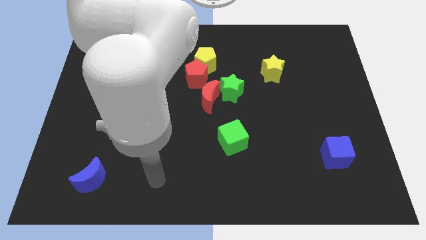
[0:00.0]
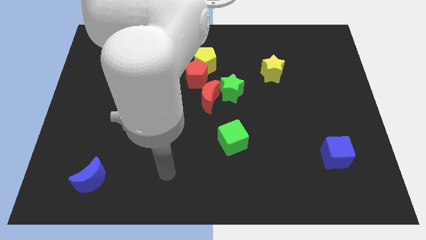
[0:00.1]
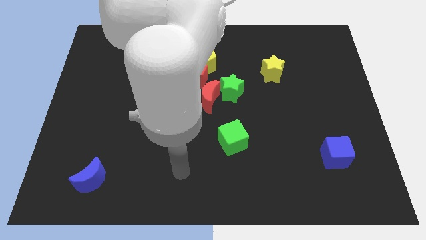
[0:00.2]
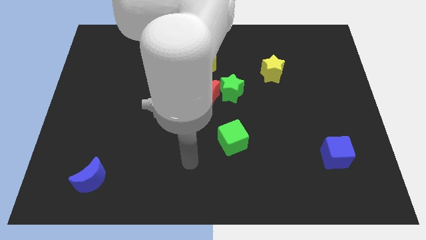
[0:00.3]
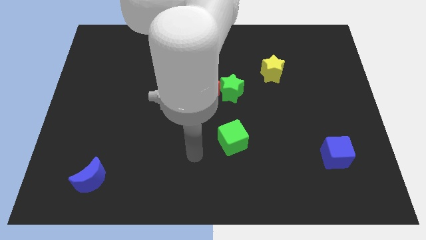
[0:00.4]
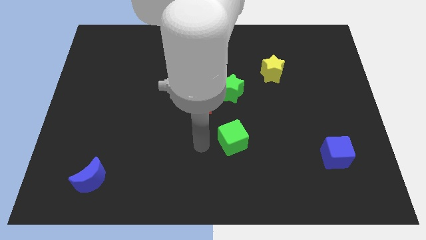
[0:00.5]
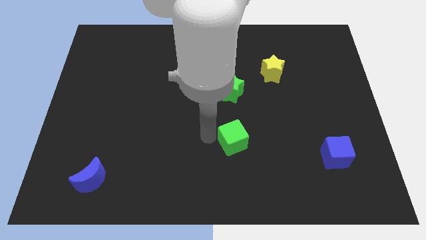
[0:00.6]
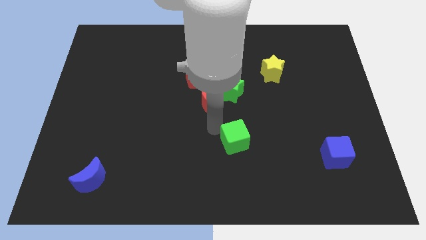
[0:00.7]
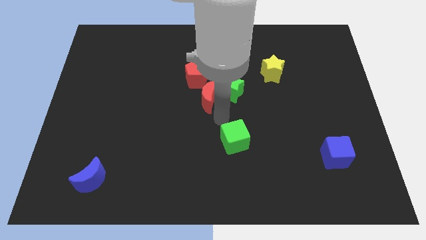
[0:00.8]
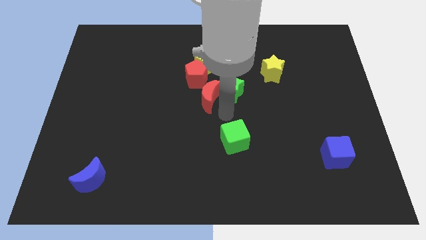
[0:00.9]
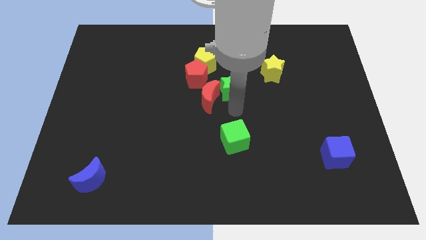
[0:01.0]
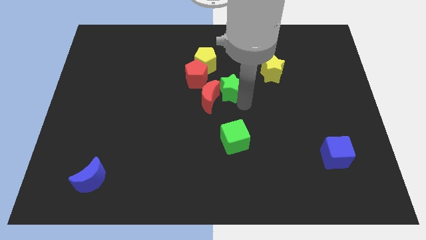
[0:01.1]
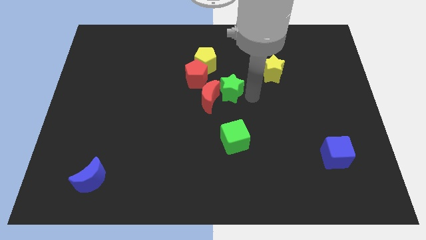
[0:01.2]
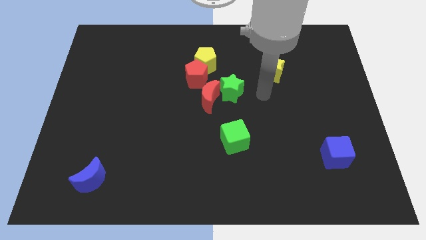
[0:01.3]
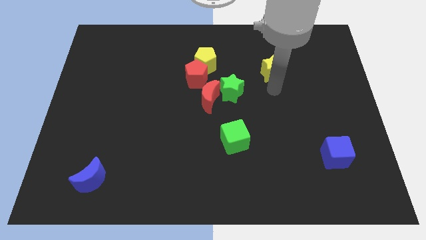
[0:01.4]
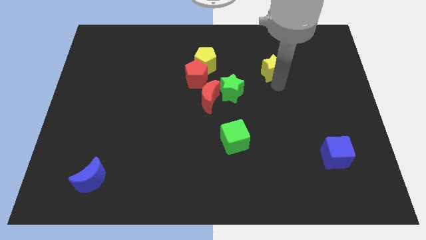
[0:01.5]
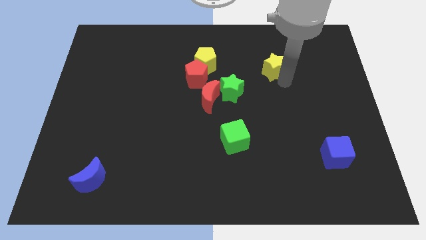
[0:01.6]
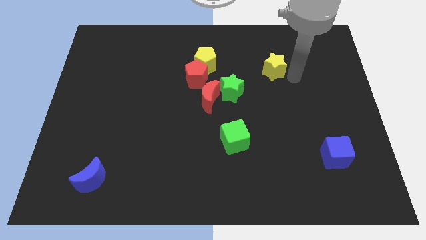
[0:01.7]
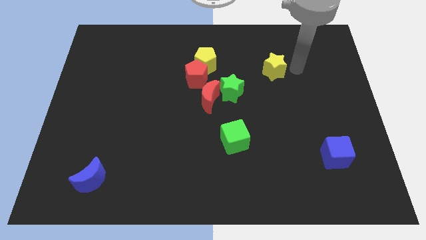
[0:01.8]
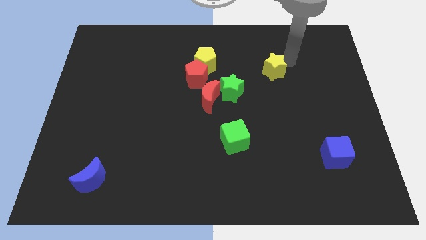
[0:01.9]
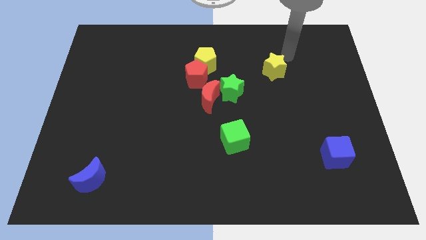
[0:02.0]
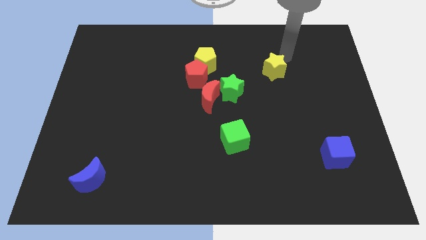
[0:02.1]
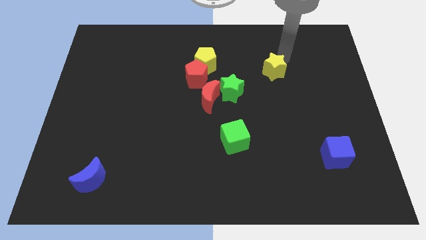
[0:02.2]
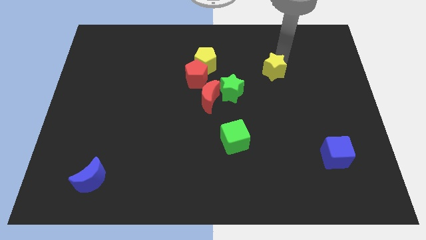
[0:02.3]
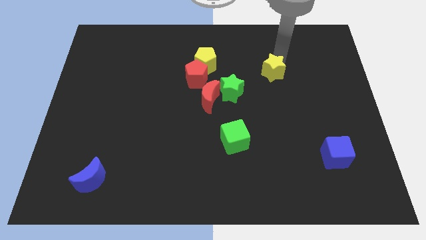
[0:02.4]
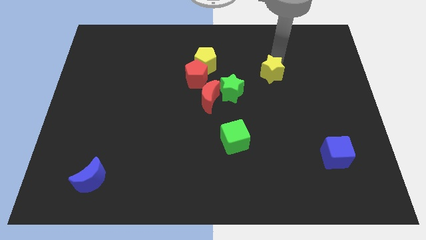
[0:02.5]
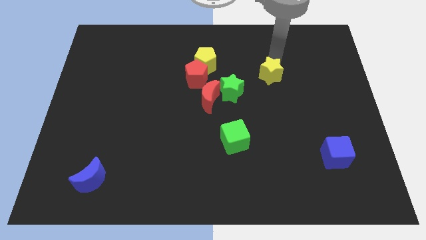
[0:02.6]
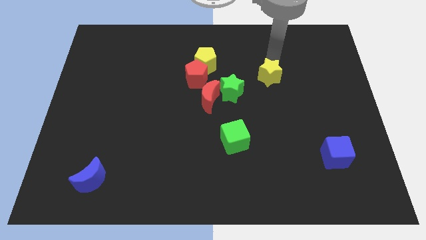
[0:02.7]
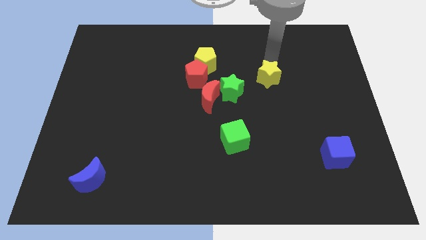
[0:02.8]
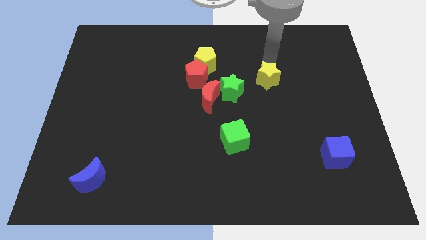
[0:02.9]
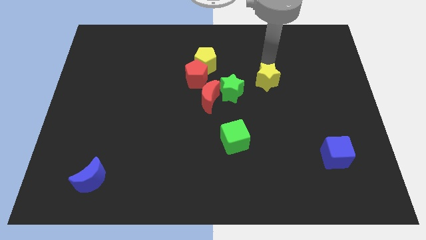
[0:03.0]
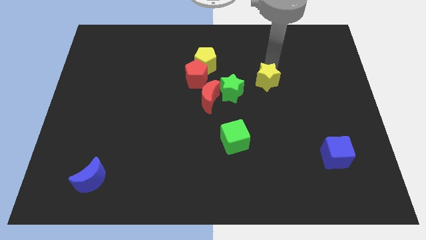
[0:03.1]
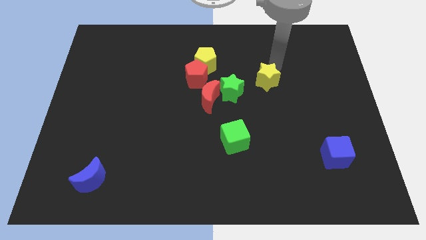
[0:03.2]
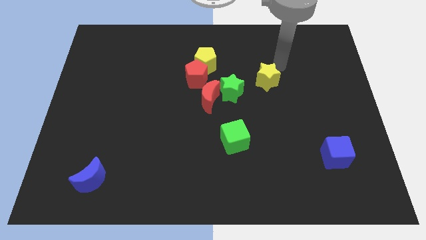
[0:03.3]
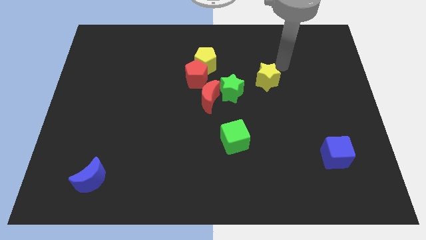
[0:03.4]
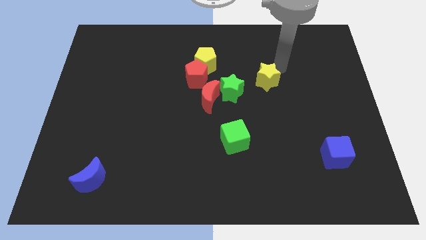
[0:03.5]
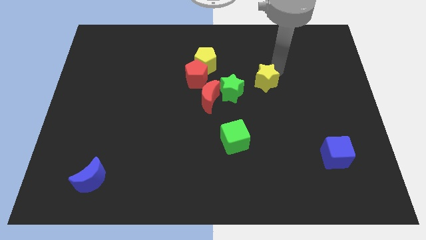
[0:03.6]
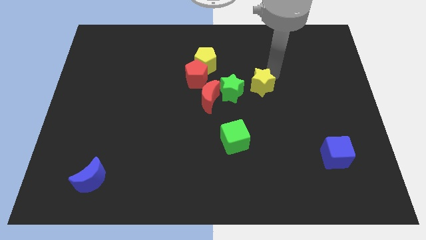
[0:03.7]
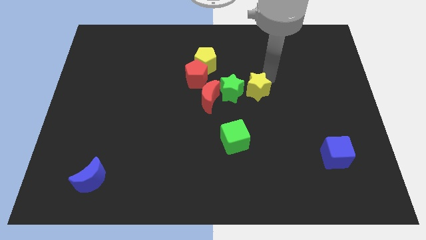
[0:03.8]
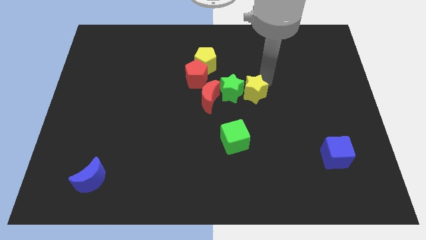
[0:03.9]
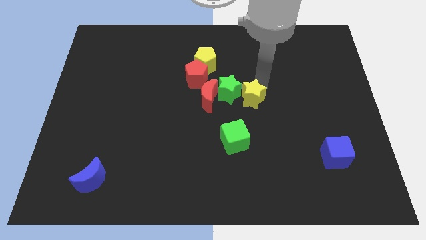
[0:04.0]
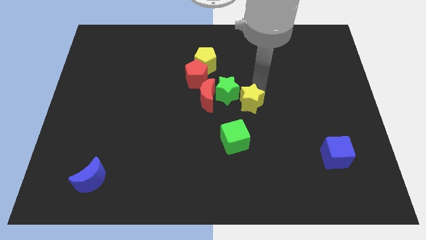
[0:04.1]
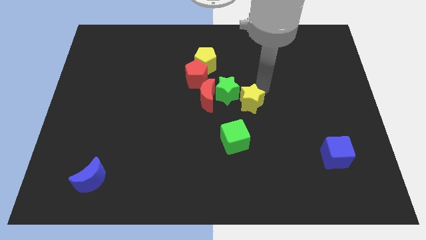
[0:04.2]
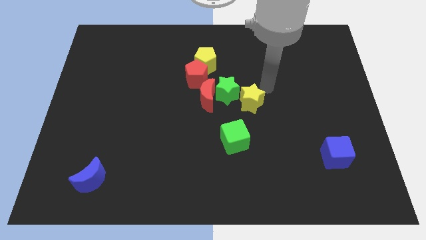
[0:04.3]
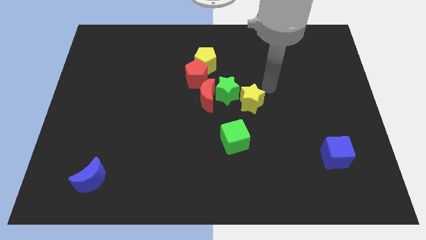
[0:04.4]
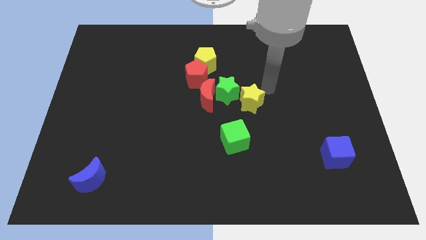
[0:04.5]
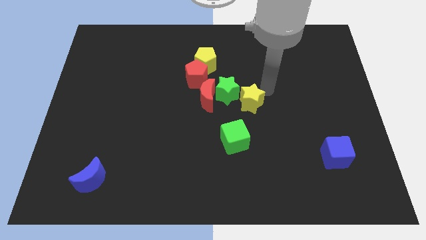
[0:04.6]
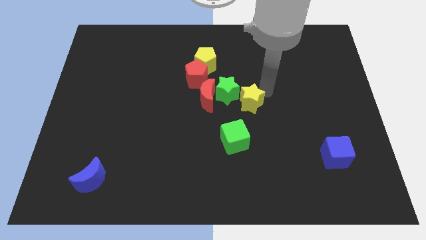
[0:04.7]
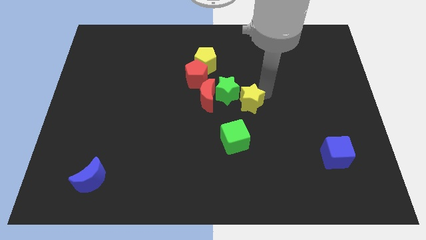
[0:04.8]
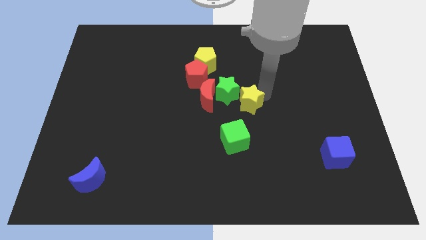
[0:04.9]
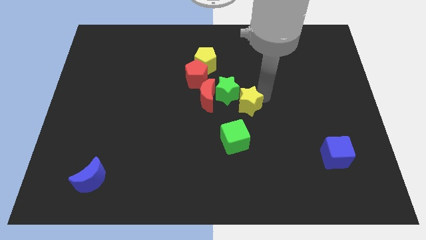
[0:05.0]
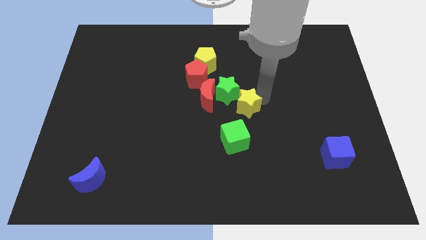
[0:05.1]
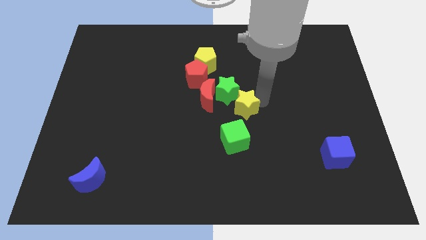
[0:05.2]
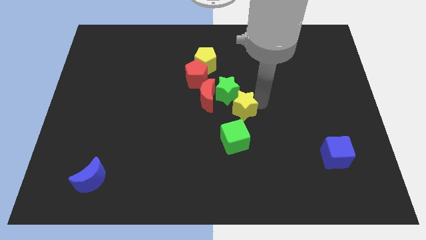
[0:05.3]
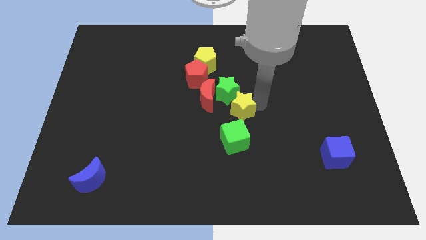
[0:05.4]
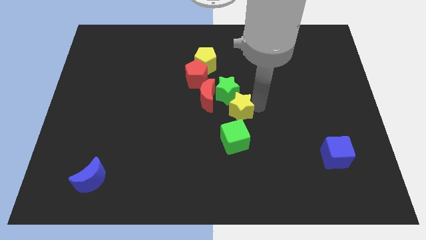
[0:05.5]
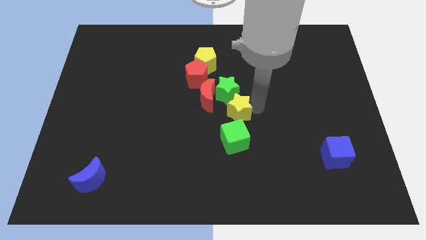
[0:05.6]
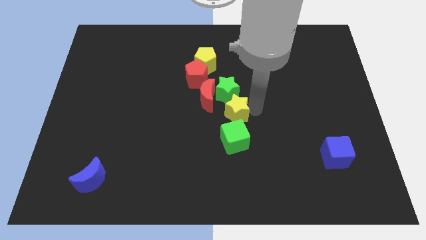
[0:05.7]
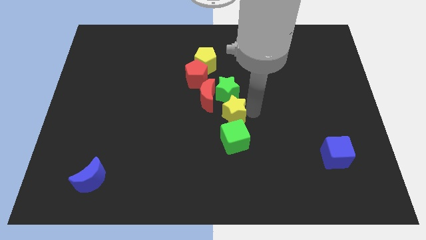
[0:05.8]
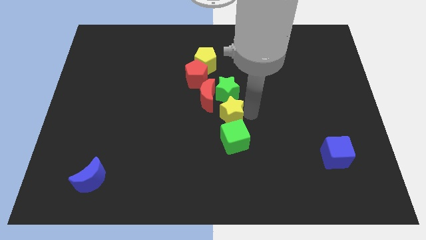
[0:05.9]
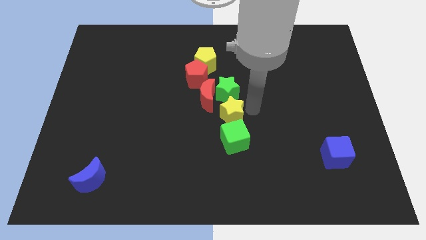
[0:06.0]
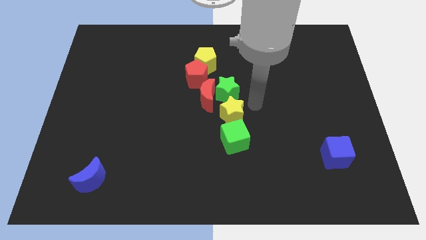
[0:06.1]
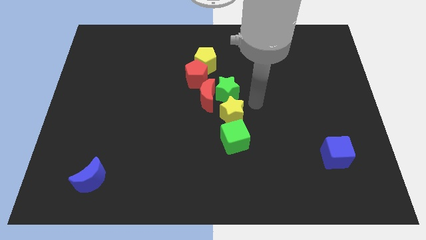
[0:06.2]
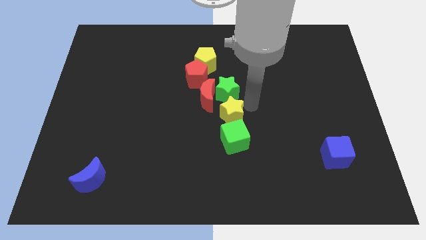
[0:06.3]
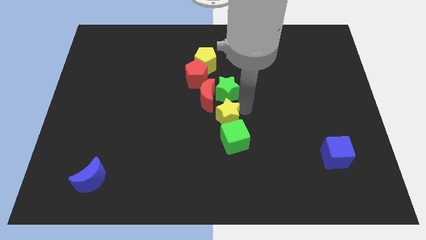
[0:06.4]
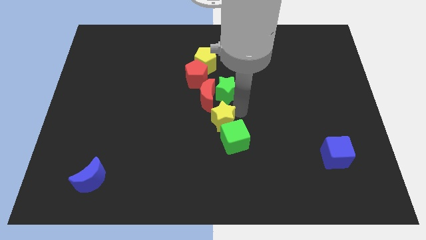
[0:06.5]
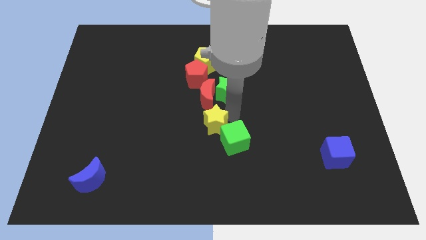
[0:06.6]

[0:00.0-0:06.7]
move the yellow star down and to the left

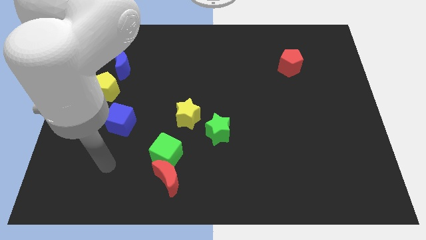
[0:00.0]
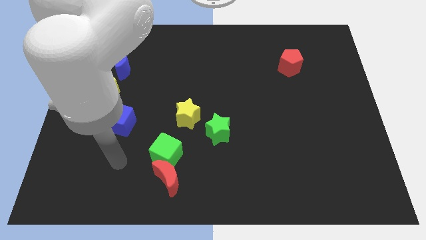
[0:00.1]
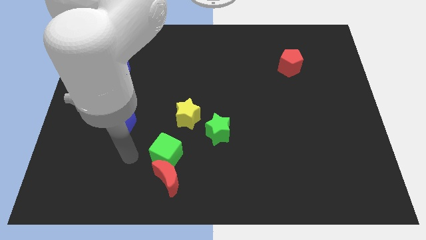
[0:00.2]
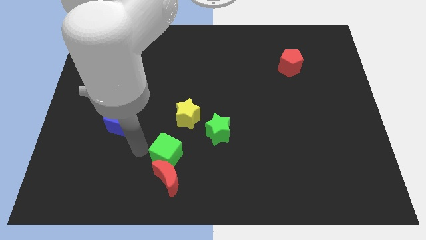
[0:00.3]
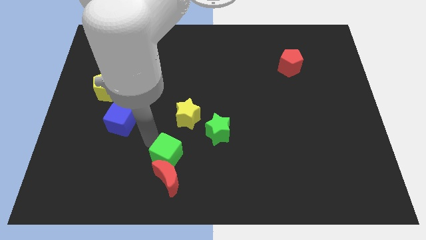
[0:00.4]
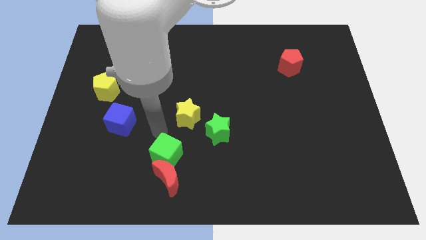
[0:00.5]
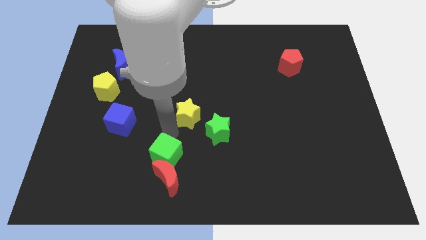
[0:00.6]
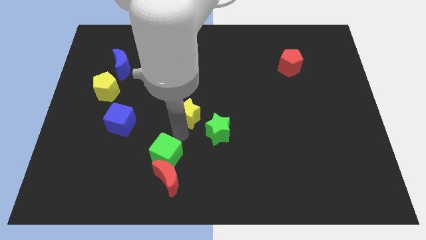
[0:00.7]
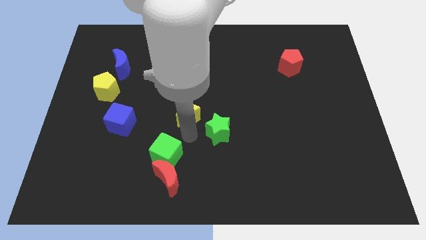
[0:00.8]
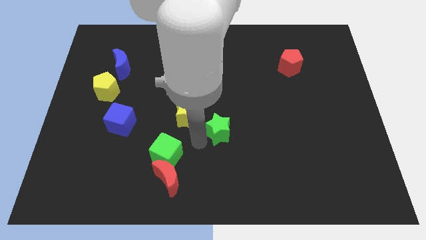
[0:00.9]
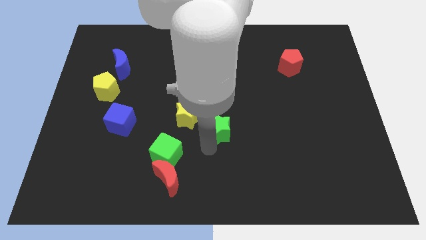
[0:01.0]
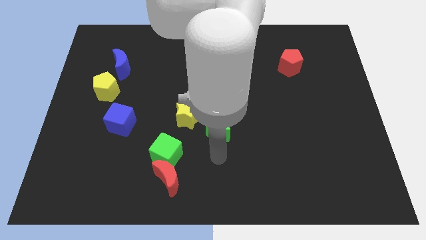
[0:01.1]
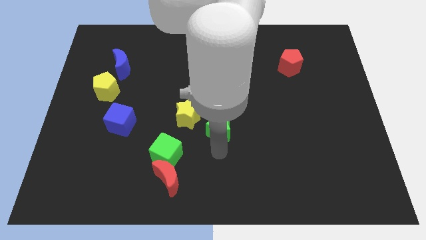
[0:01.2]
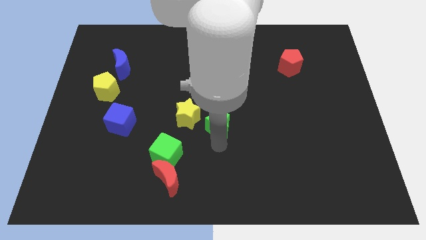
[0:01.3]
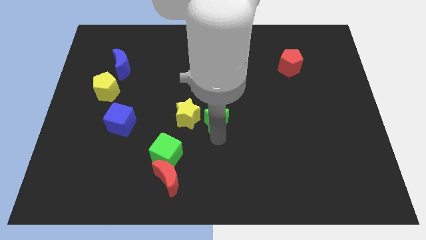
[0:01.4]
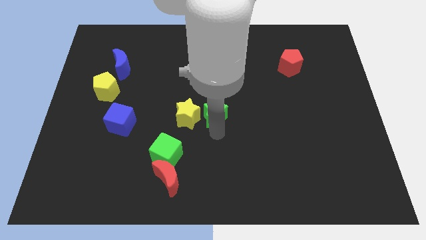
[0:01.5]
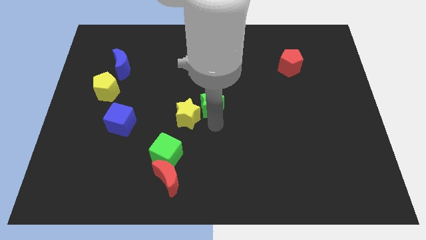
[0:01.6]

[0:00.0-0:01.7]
slide the green star a little up
